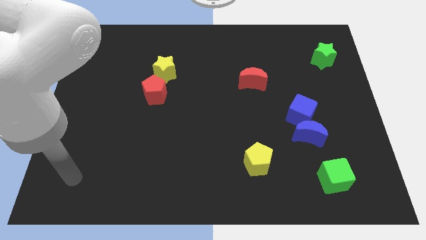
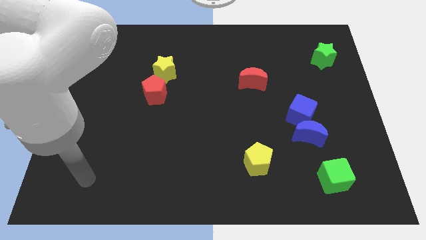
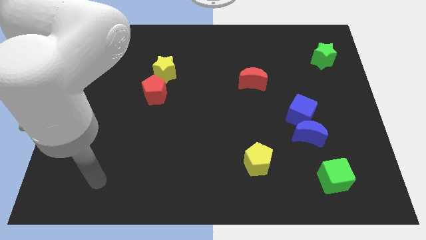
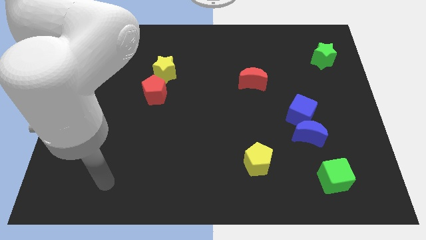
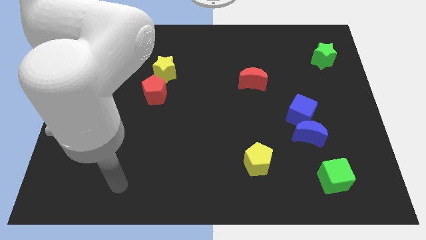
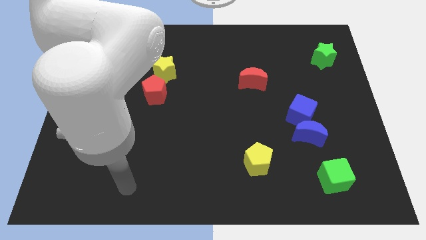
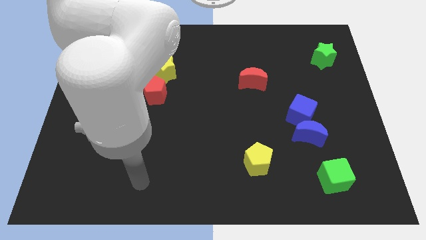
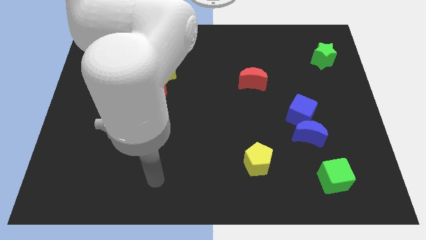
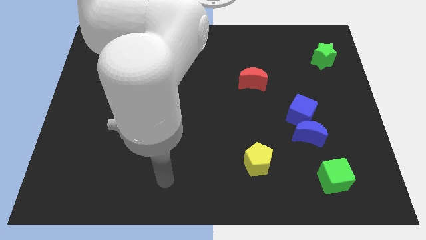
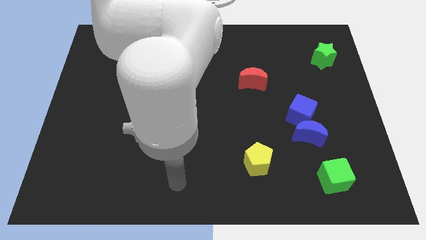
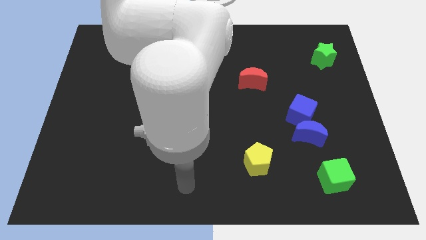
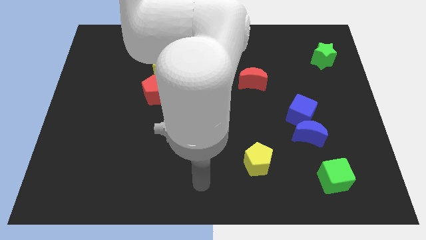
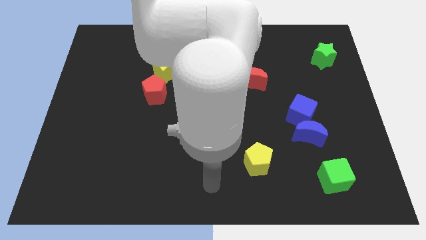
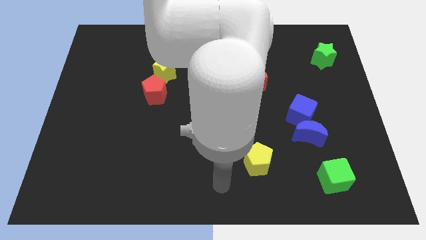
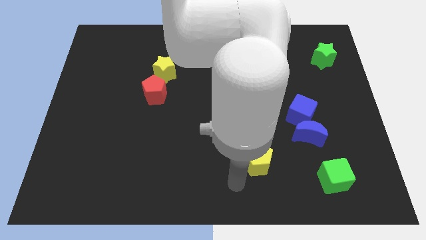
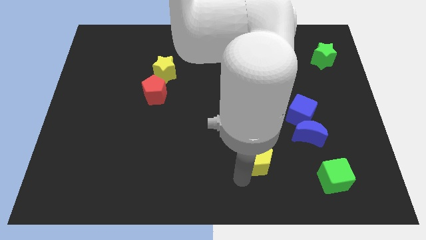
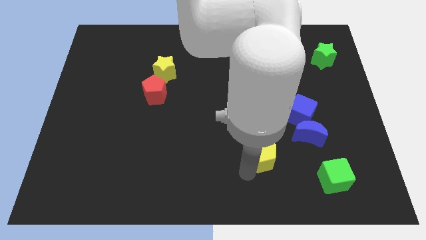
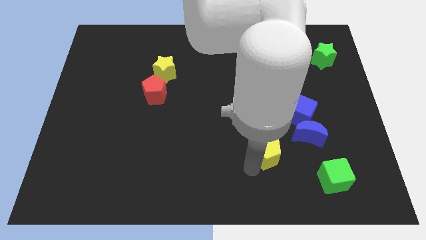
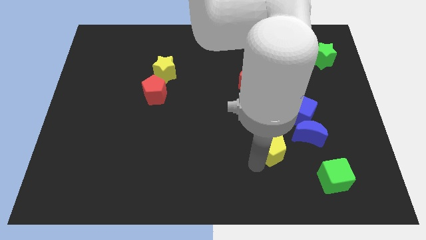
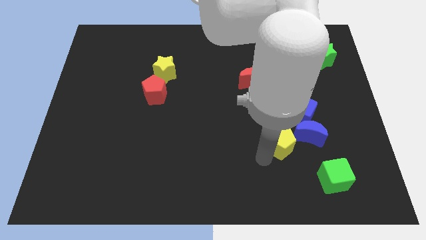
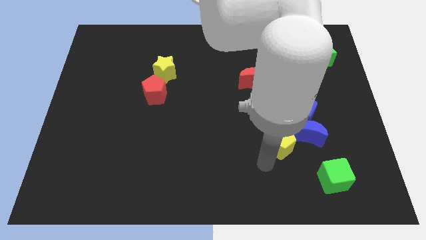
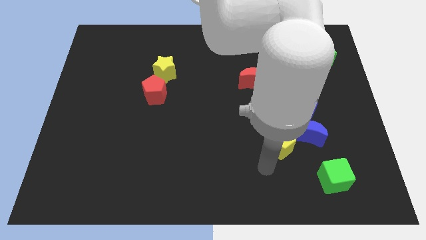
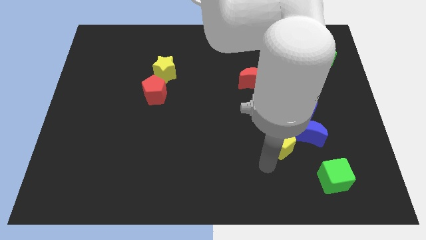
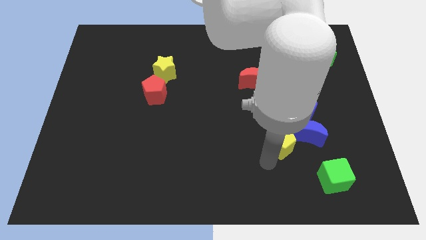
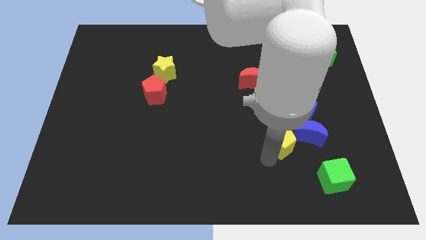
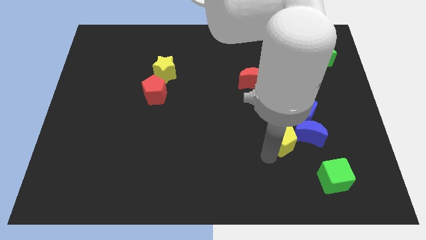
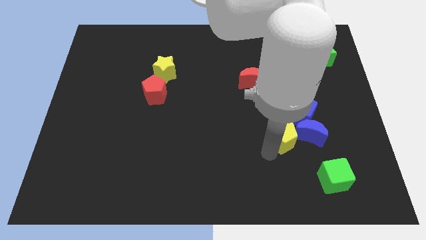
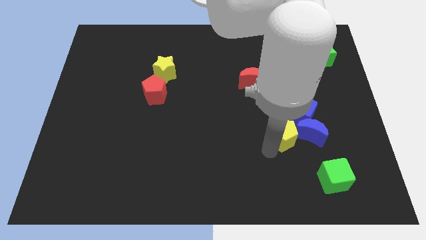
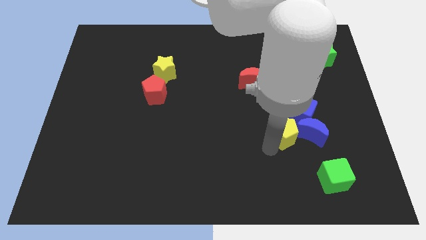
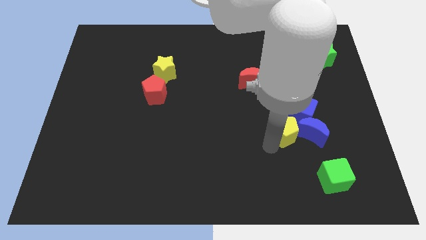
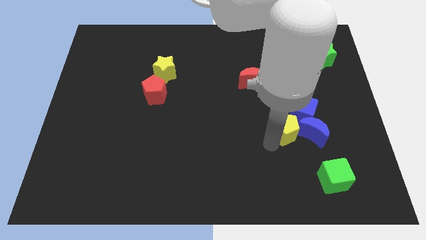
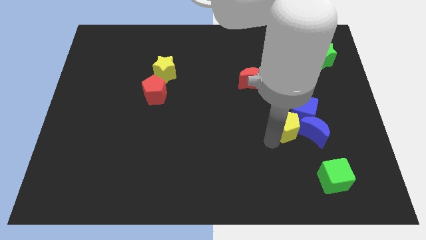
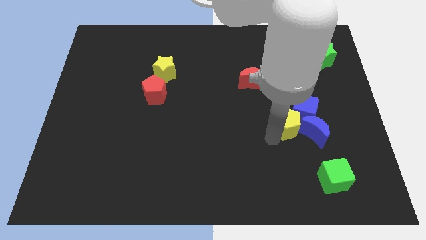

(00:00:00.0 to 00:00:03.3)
move the yellow pentagon towards the blue cube

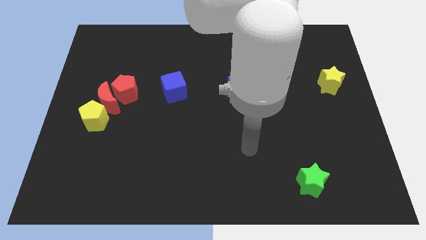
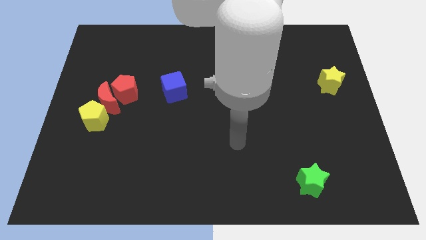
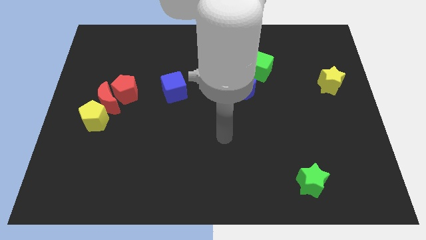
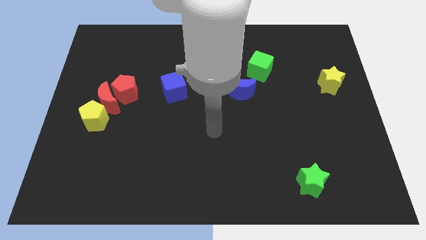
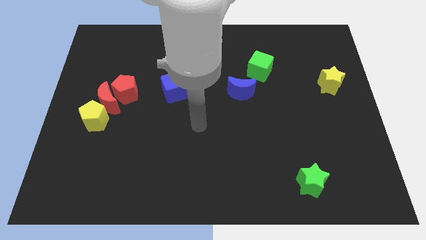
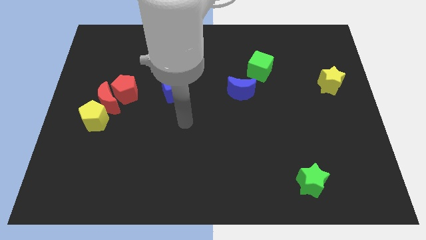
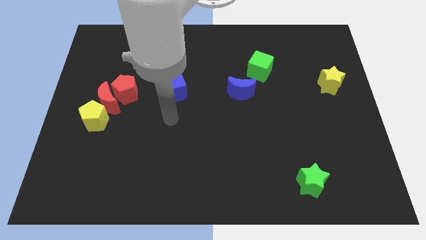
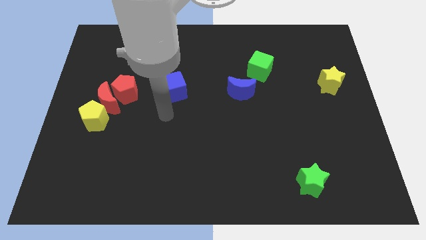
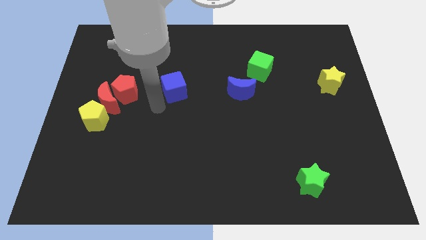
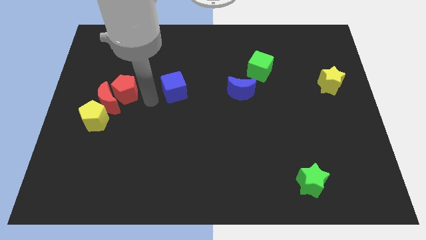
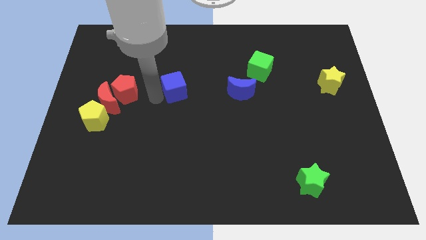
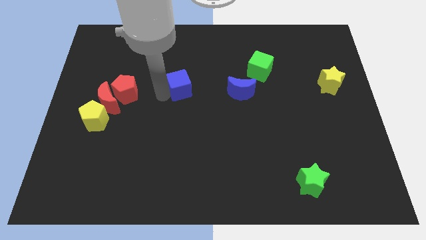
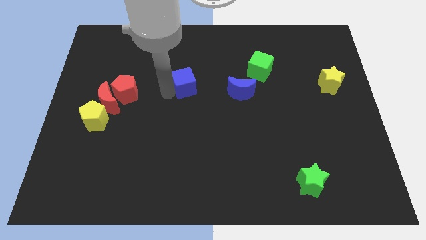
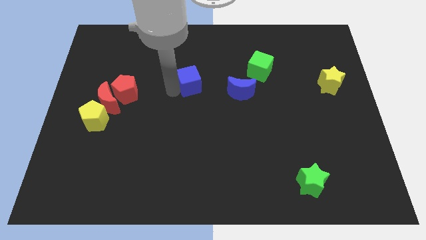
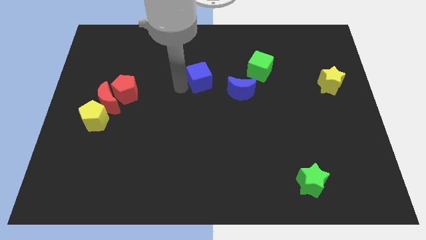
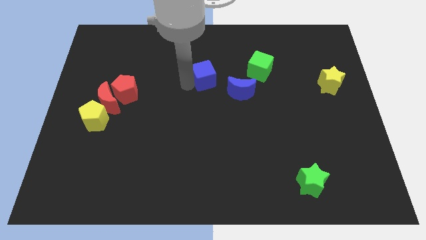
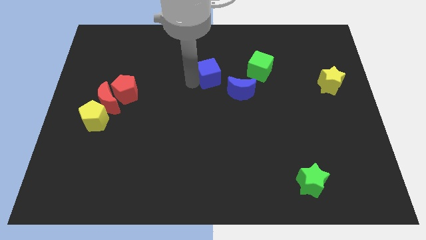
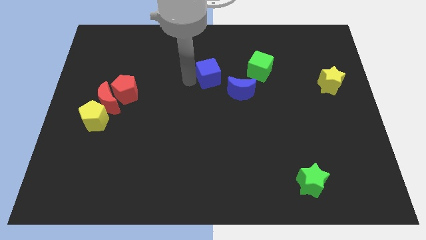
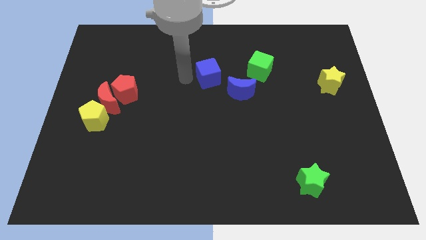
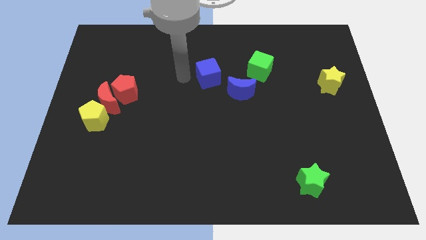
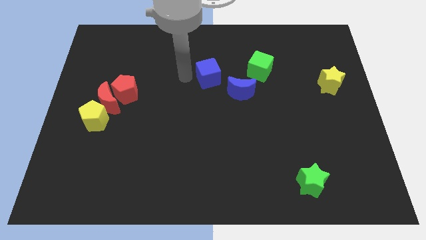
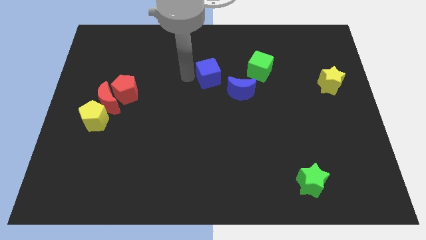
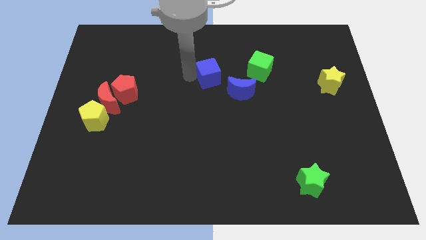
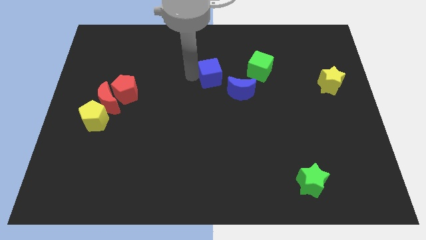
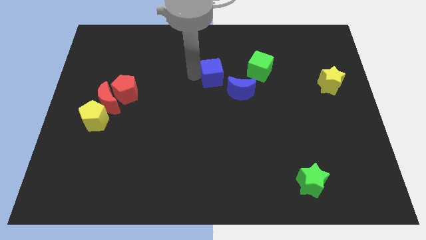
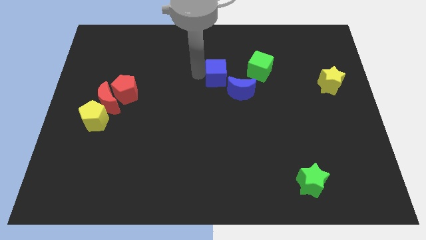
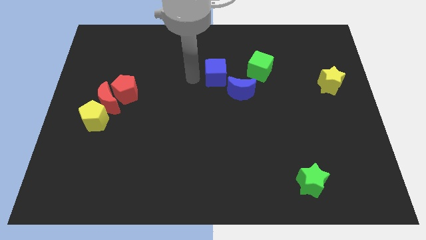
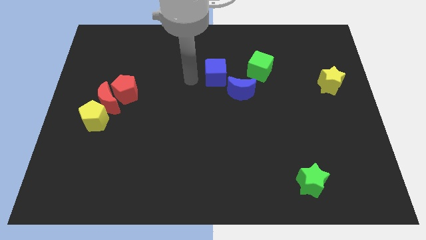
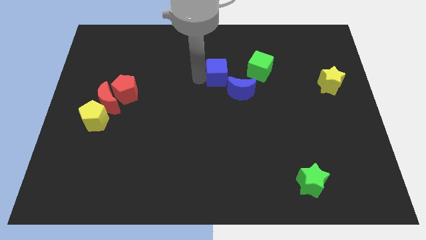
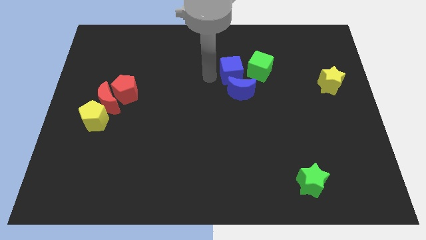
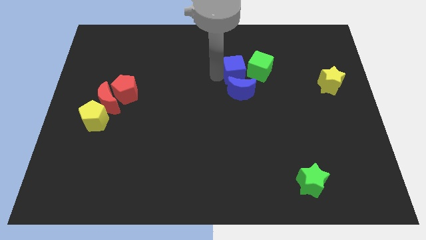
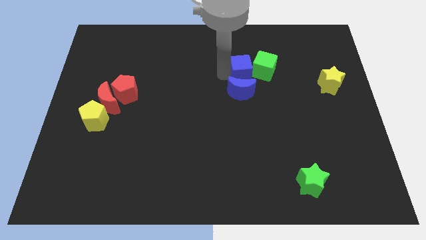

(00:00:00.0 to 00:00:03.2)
push the blue cube to the green cube

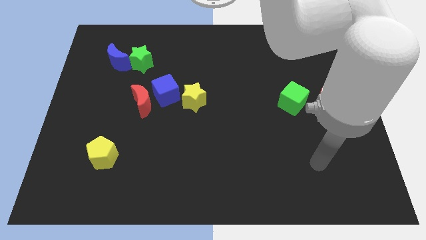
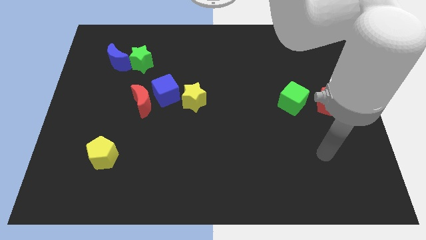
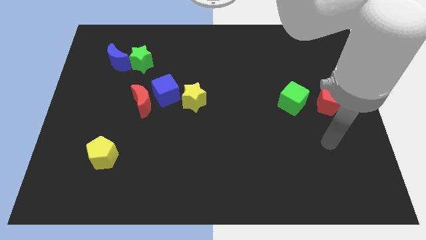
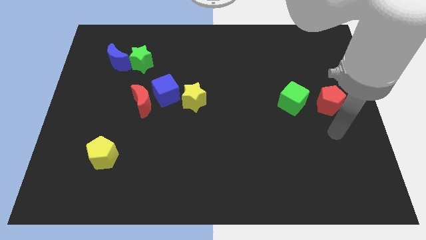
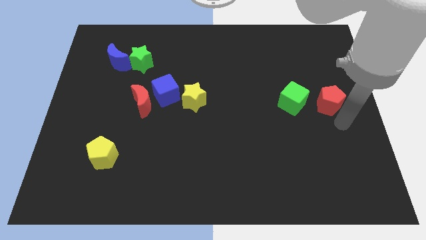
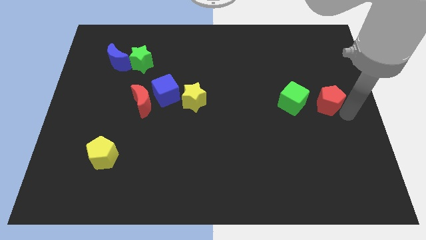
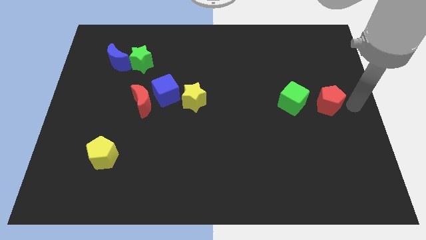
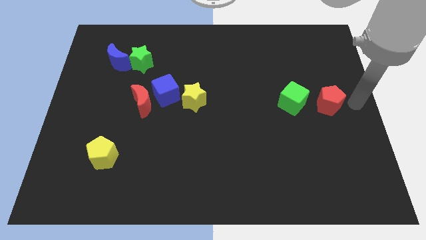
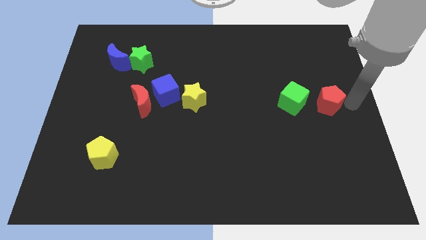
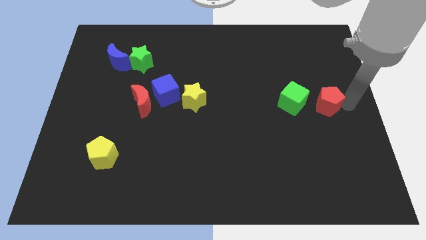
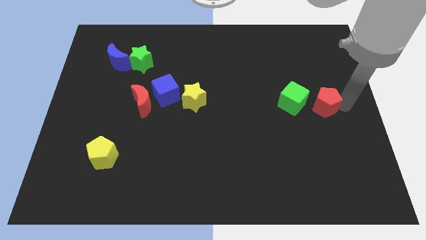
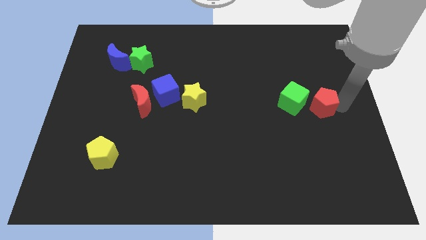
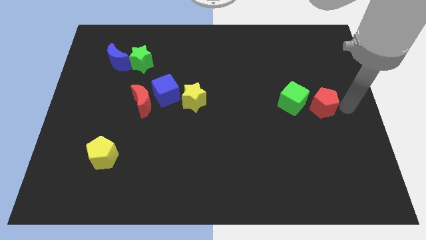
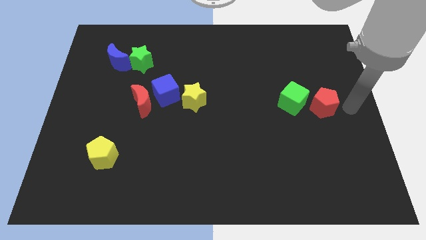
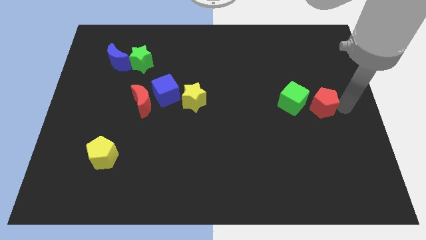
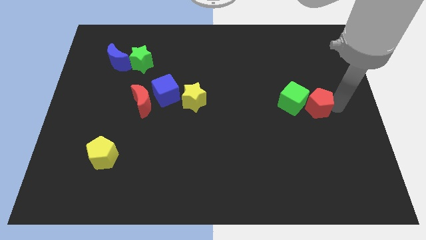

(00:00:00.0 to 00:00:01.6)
slide the red pentagon close to the green cube

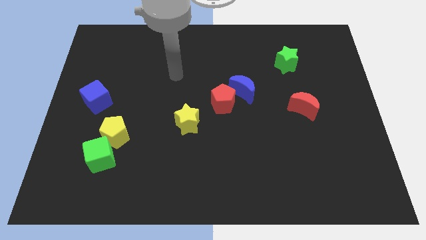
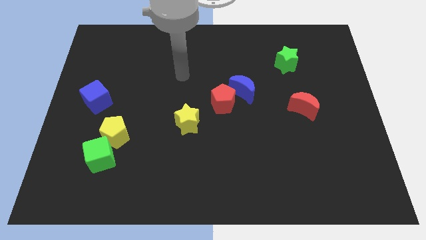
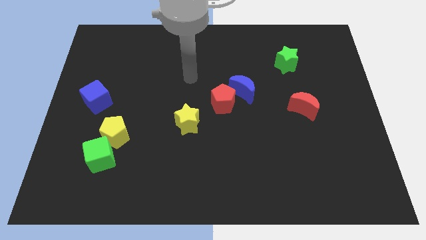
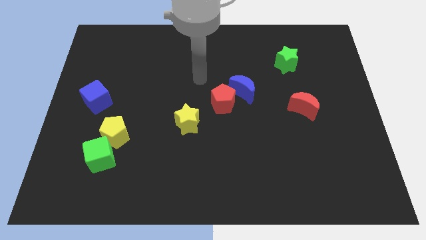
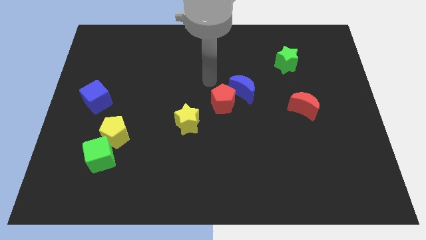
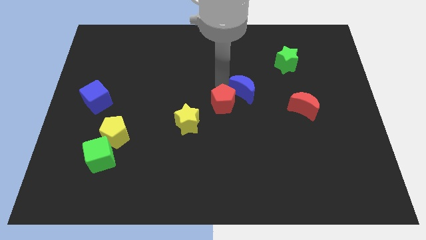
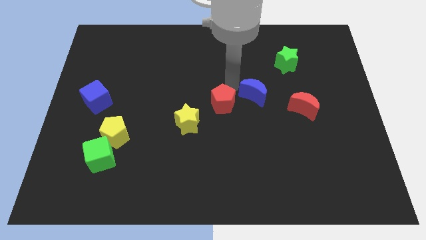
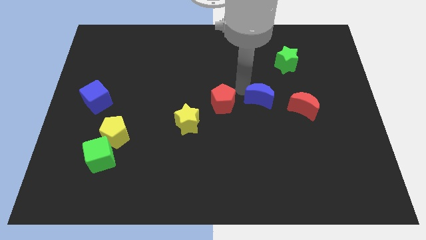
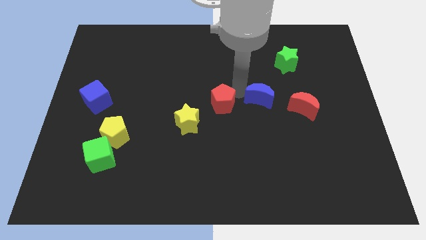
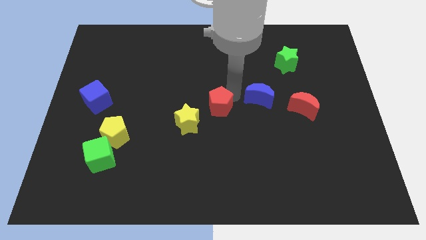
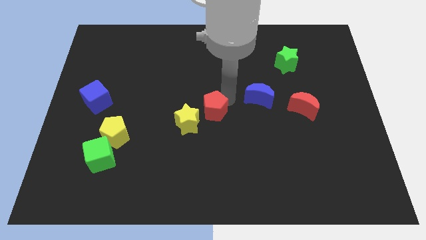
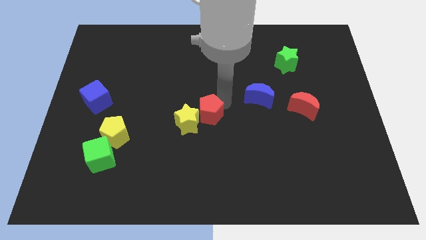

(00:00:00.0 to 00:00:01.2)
move the red pentagon next to the yellow star
